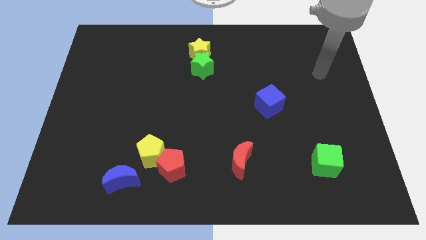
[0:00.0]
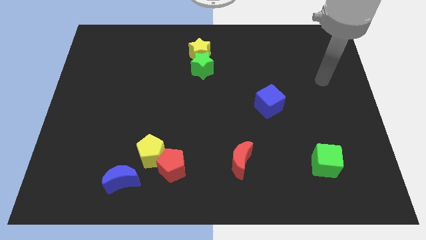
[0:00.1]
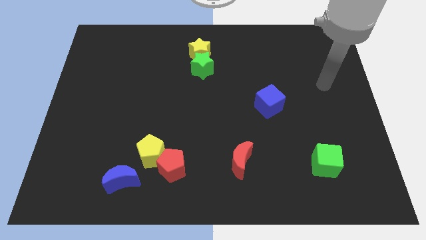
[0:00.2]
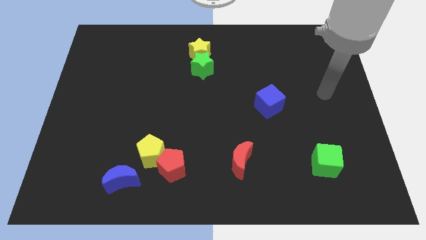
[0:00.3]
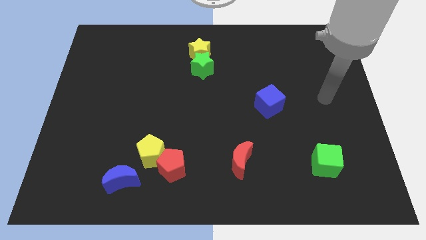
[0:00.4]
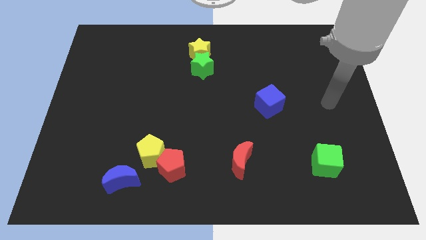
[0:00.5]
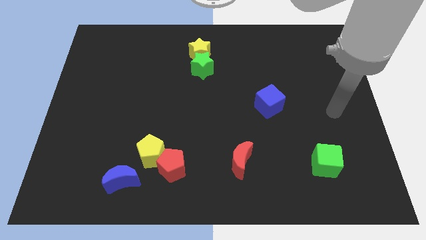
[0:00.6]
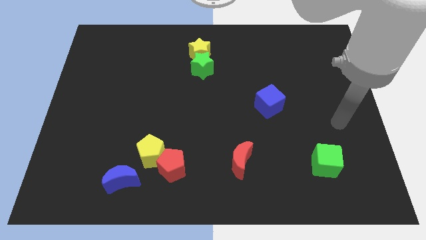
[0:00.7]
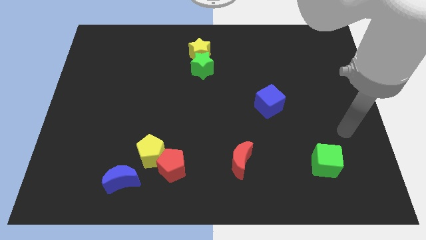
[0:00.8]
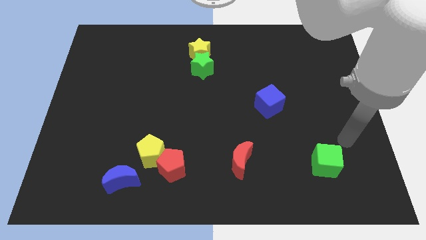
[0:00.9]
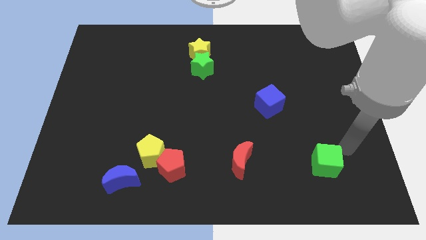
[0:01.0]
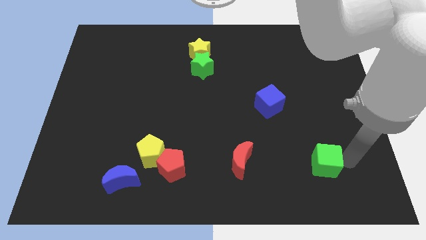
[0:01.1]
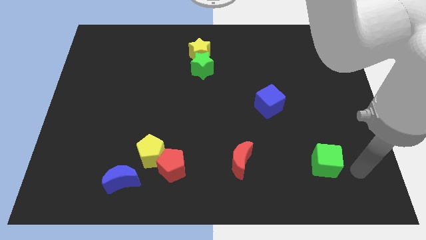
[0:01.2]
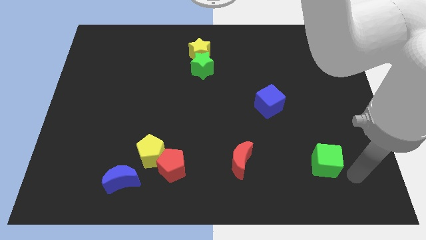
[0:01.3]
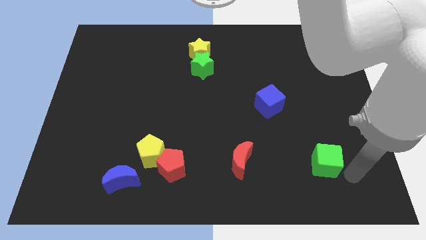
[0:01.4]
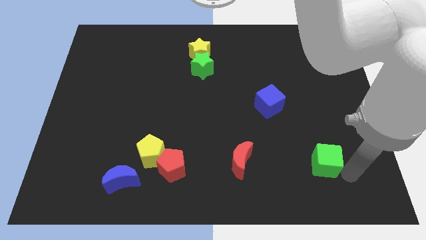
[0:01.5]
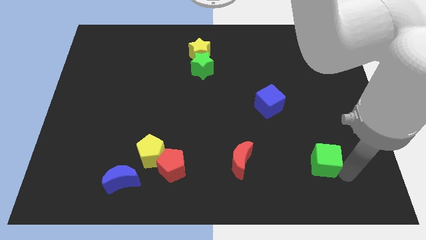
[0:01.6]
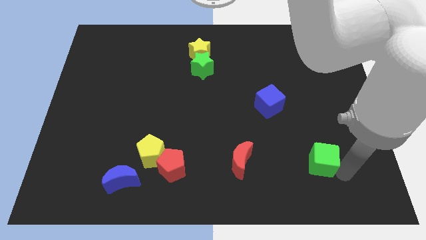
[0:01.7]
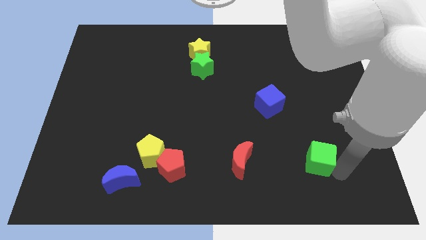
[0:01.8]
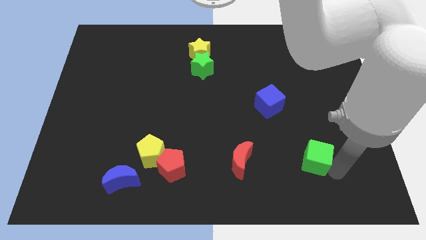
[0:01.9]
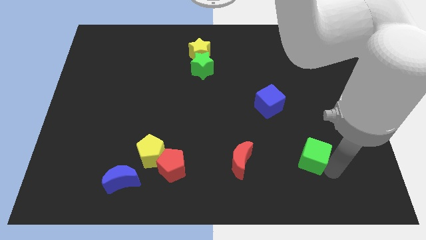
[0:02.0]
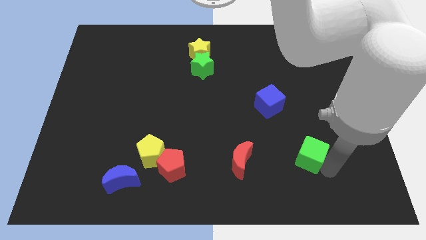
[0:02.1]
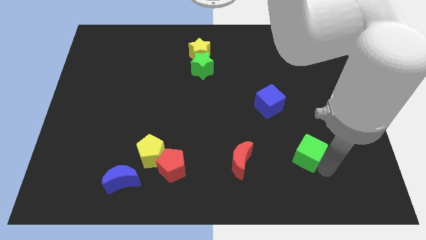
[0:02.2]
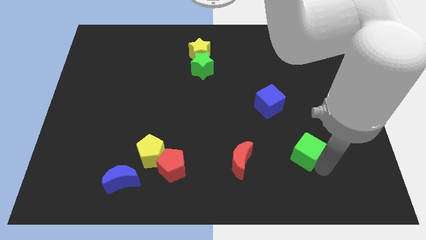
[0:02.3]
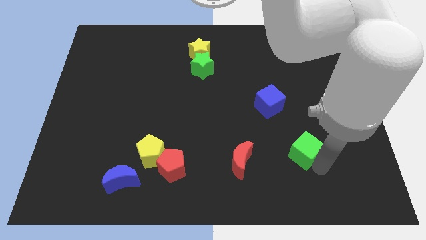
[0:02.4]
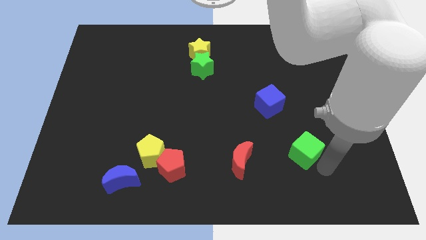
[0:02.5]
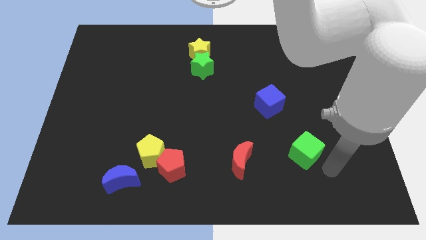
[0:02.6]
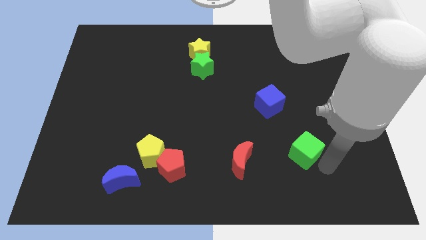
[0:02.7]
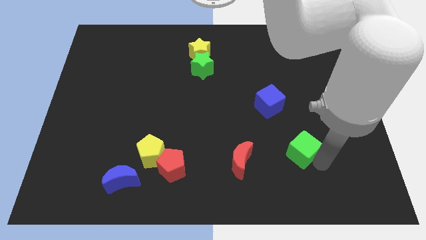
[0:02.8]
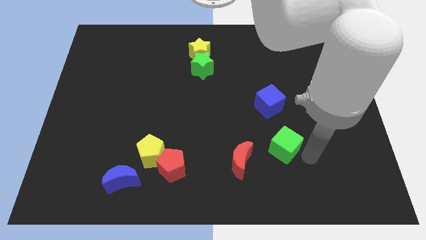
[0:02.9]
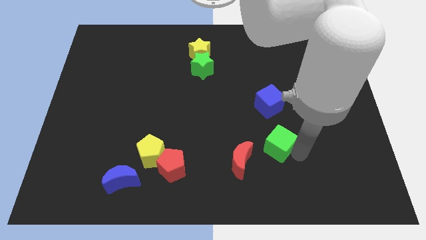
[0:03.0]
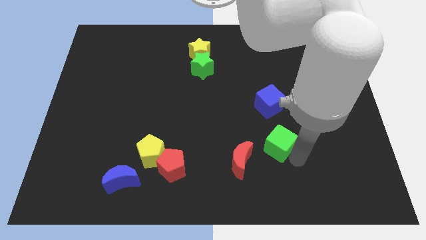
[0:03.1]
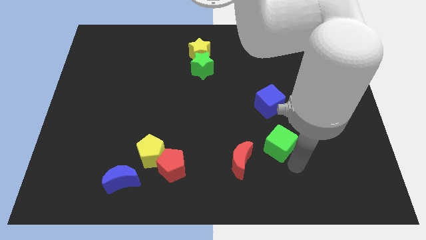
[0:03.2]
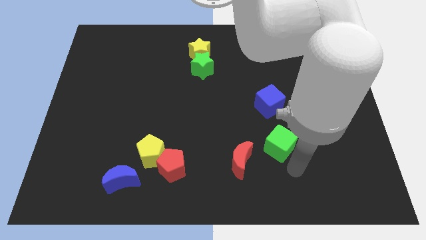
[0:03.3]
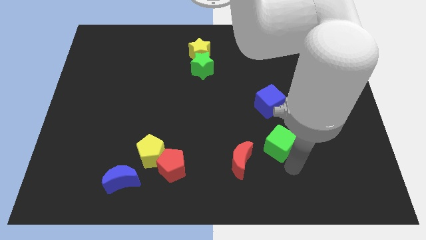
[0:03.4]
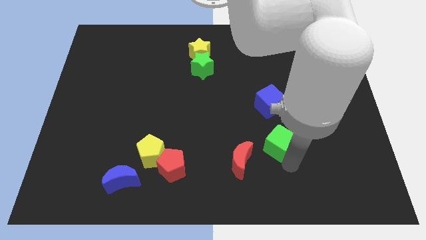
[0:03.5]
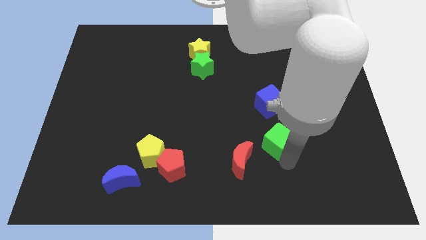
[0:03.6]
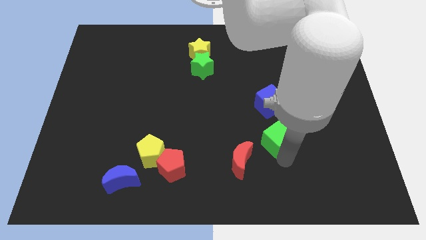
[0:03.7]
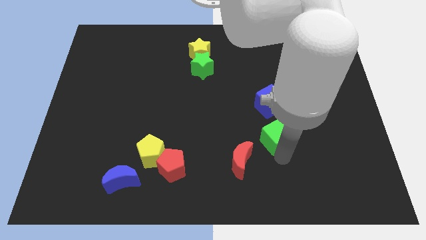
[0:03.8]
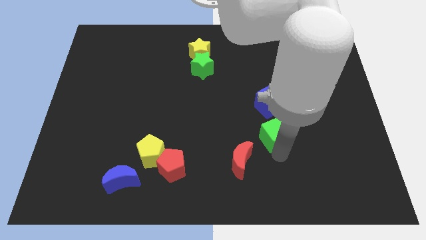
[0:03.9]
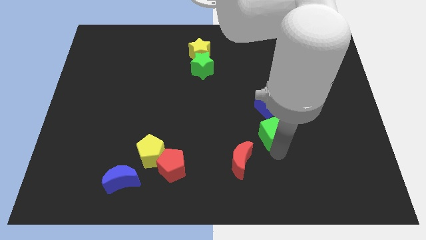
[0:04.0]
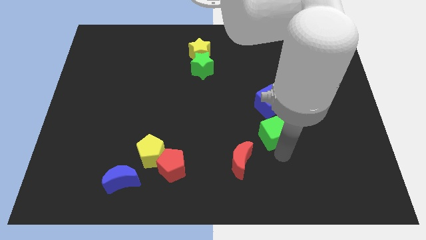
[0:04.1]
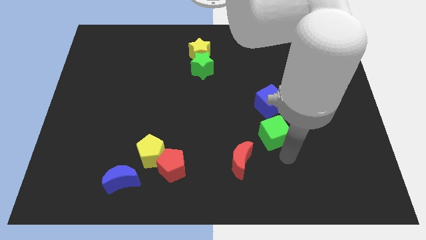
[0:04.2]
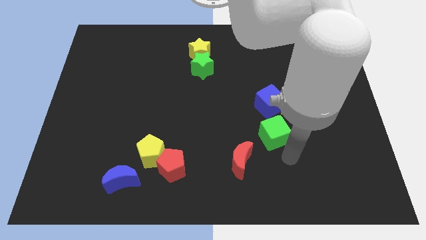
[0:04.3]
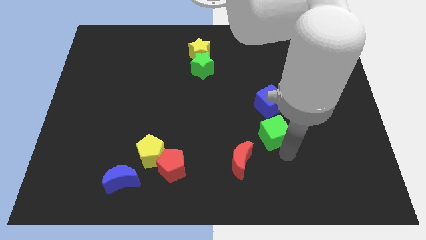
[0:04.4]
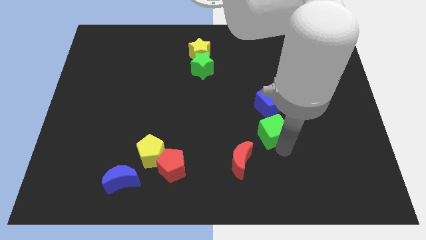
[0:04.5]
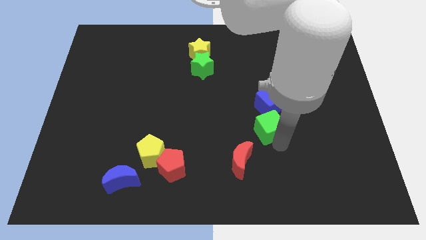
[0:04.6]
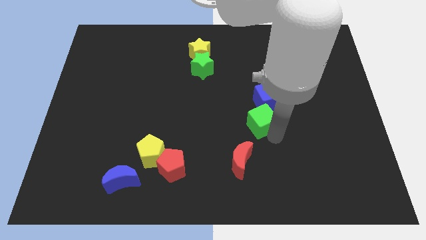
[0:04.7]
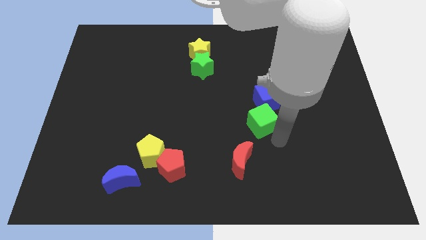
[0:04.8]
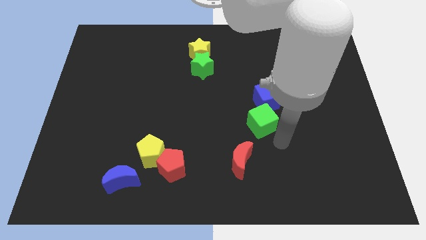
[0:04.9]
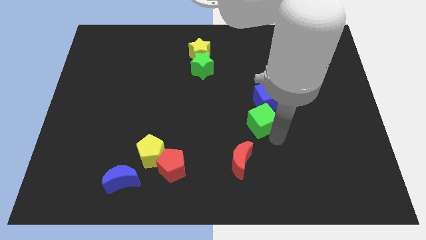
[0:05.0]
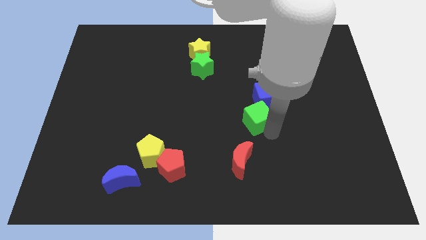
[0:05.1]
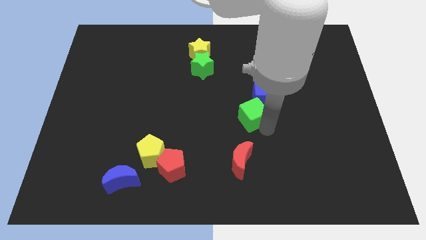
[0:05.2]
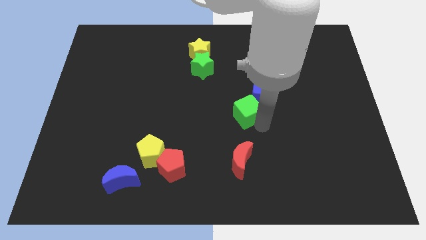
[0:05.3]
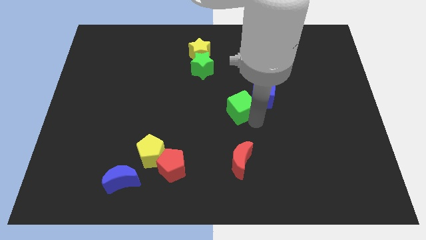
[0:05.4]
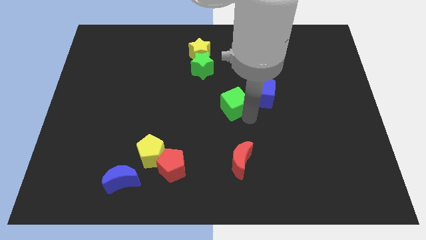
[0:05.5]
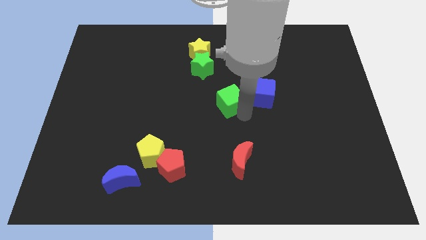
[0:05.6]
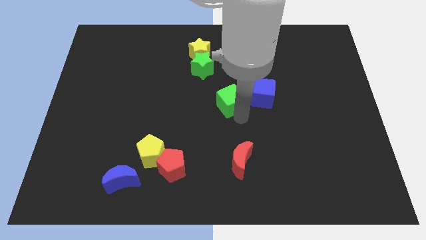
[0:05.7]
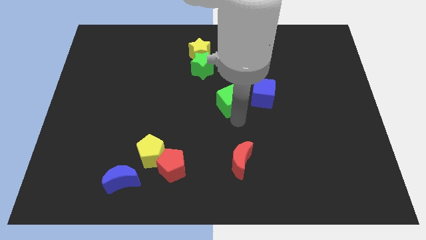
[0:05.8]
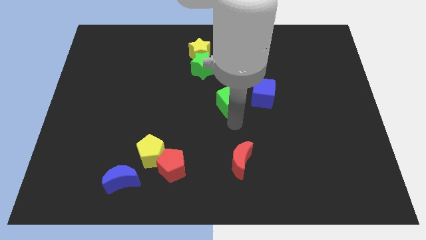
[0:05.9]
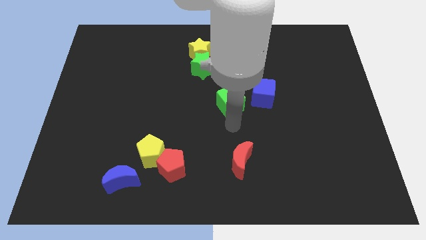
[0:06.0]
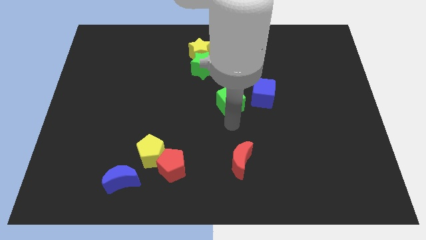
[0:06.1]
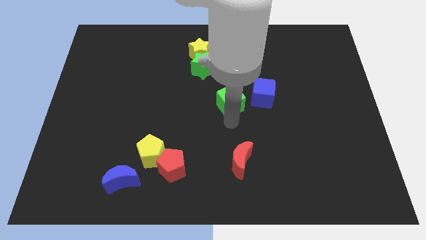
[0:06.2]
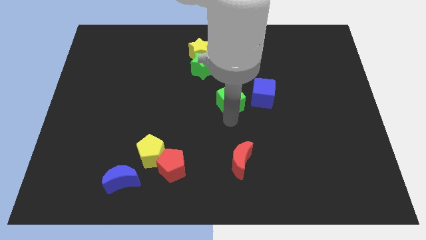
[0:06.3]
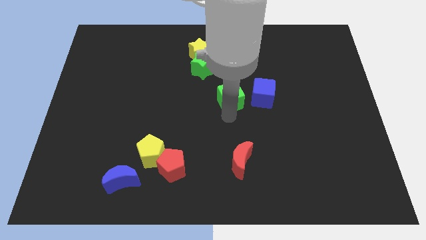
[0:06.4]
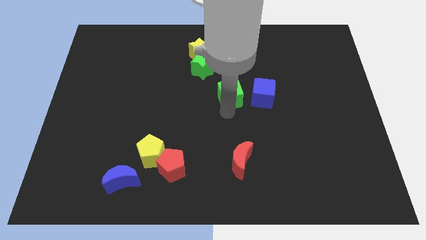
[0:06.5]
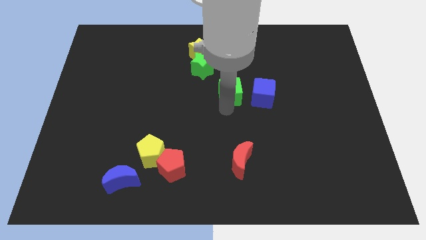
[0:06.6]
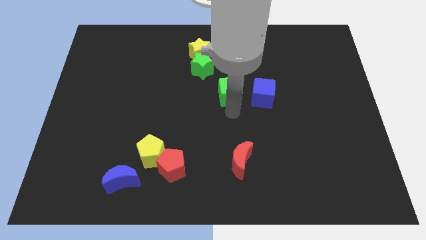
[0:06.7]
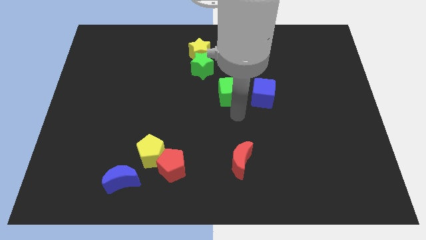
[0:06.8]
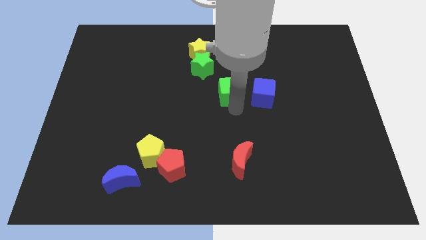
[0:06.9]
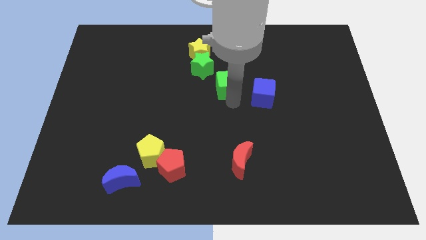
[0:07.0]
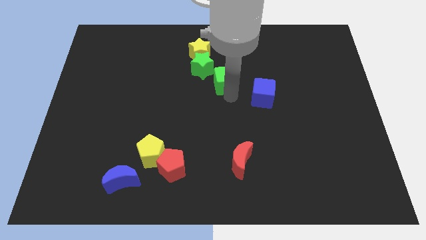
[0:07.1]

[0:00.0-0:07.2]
slide the green cube to the bottom right of the yellow star
